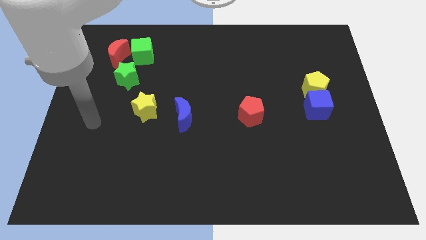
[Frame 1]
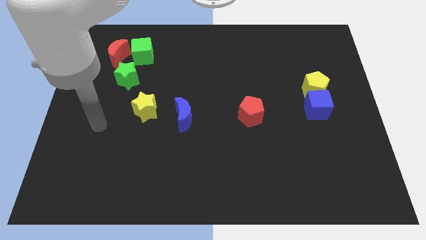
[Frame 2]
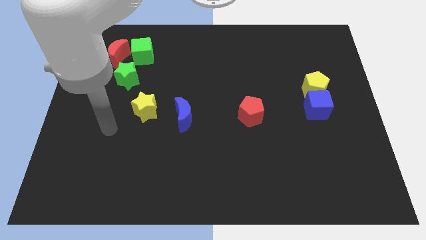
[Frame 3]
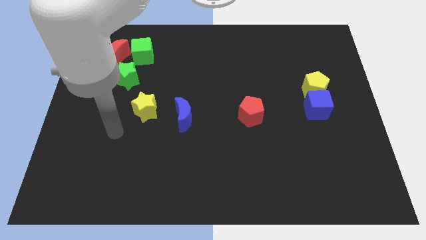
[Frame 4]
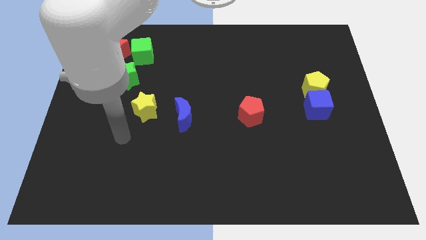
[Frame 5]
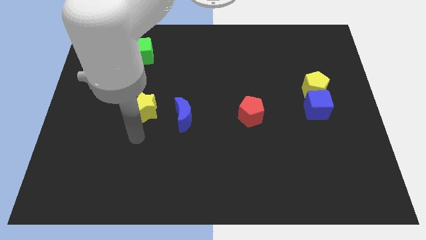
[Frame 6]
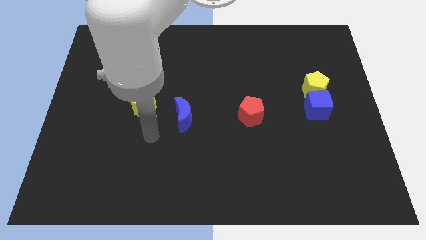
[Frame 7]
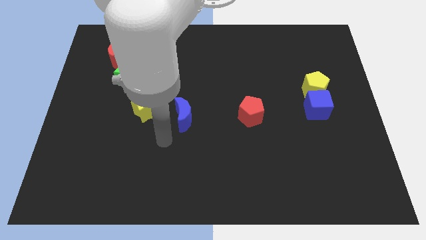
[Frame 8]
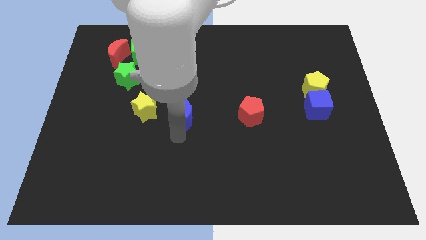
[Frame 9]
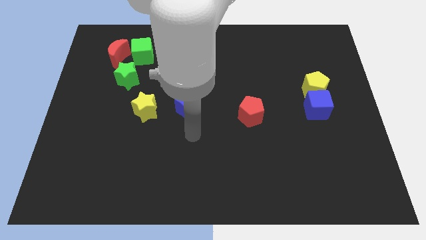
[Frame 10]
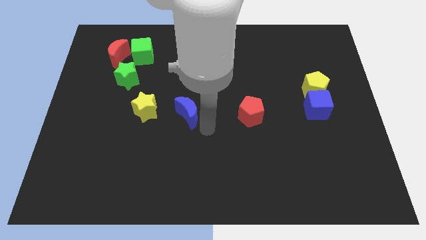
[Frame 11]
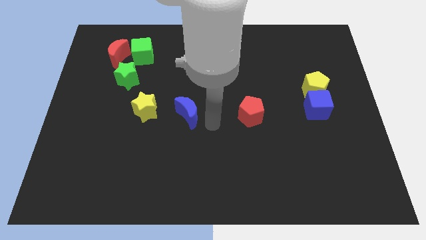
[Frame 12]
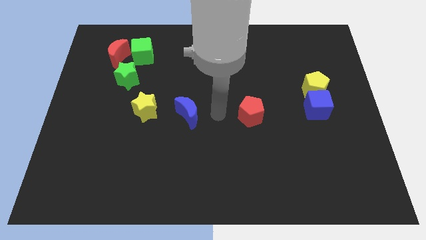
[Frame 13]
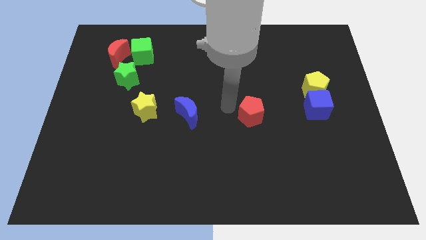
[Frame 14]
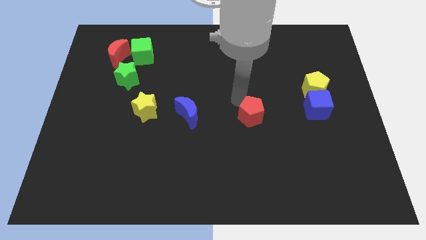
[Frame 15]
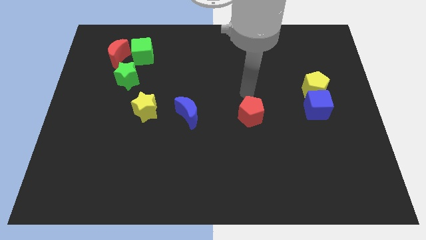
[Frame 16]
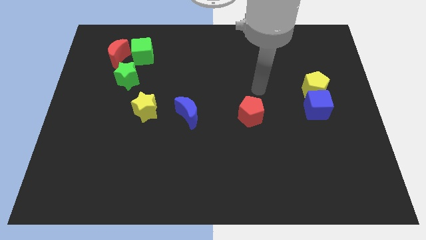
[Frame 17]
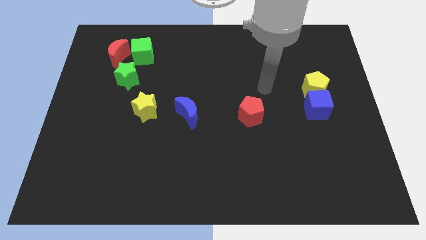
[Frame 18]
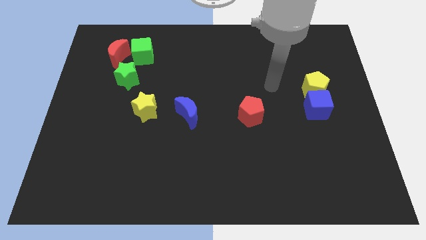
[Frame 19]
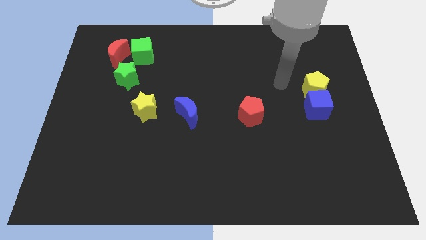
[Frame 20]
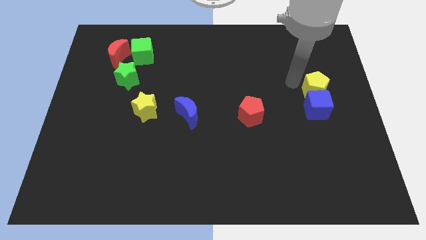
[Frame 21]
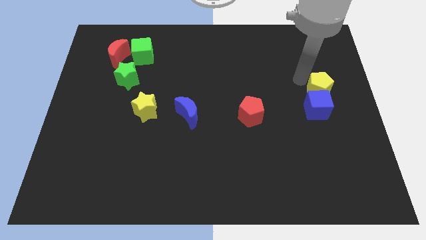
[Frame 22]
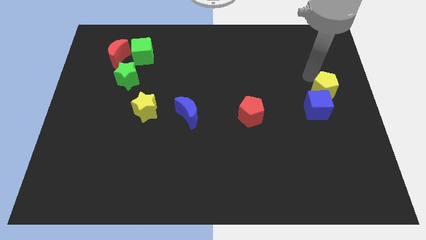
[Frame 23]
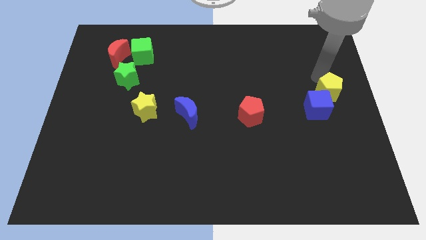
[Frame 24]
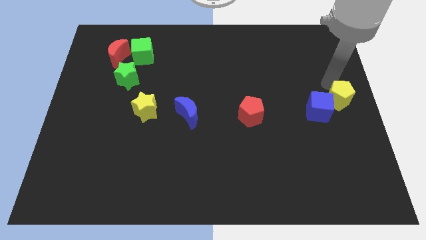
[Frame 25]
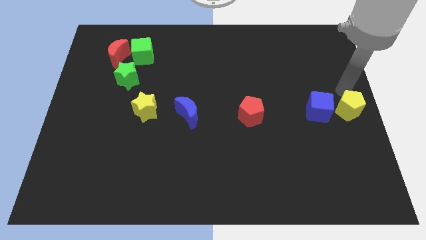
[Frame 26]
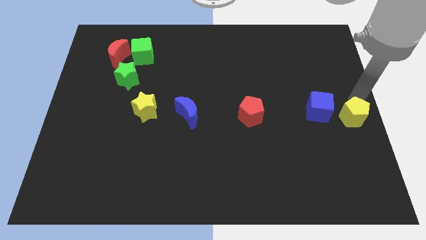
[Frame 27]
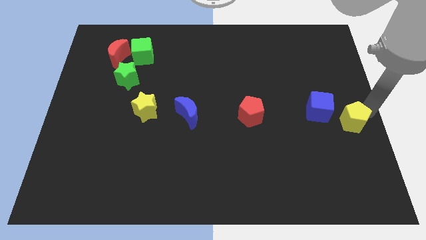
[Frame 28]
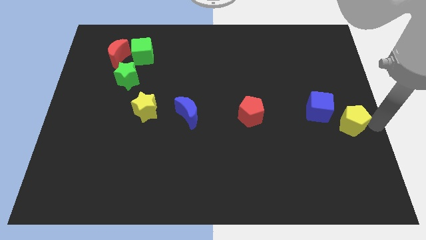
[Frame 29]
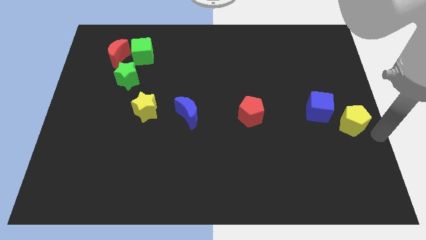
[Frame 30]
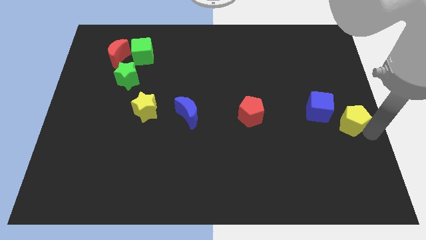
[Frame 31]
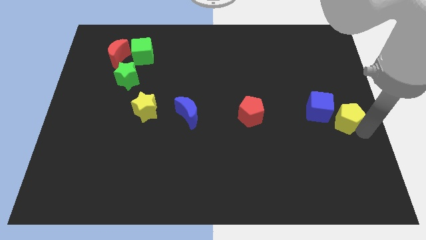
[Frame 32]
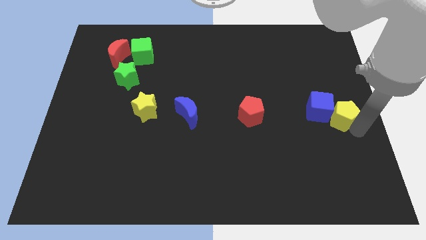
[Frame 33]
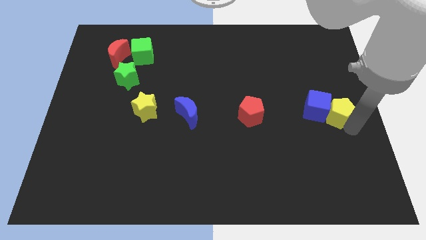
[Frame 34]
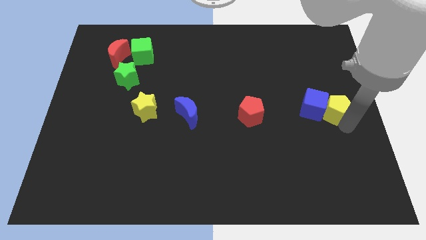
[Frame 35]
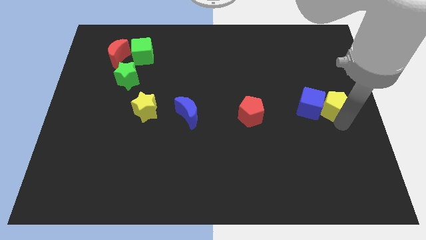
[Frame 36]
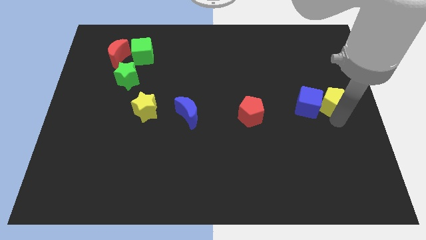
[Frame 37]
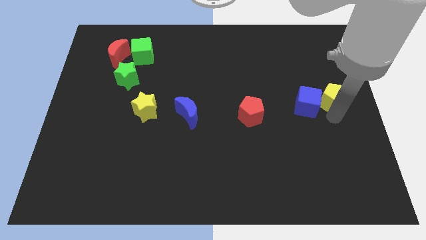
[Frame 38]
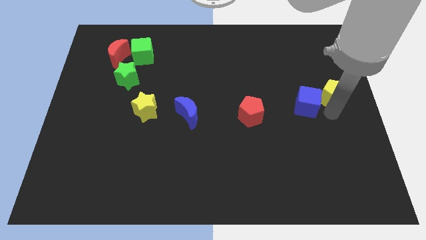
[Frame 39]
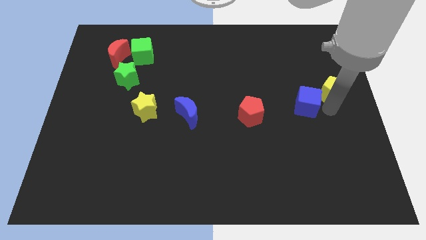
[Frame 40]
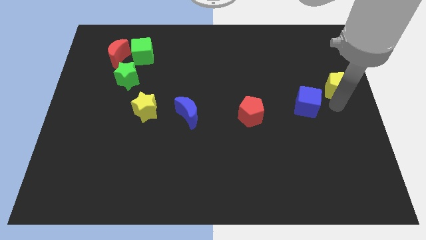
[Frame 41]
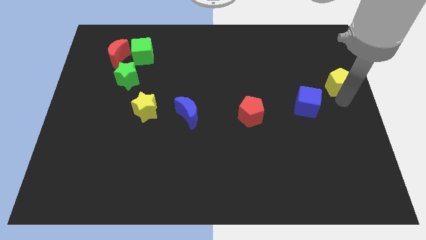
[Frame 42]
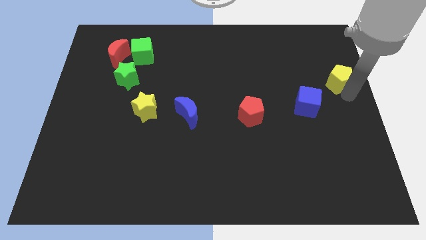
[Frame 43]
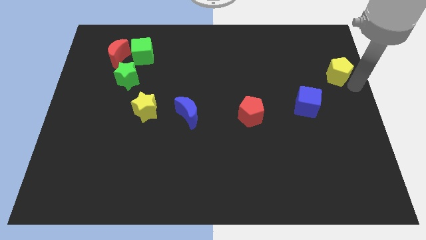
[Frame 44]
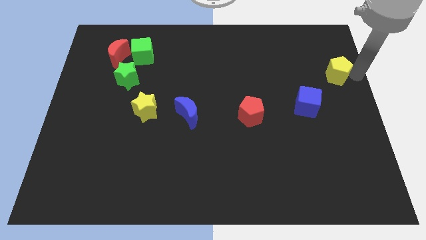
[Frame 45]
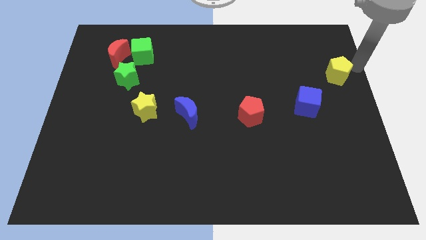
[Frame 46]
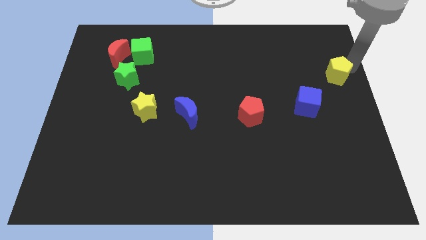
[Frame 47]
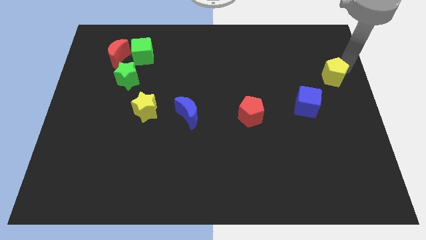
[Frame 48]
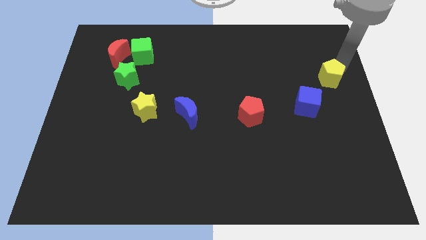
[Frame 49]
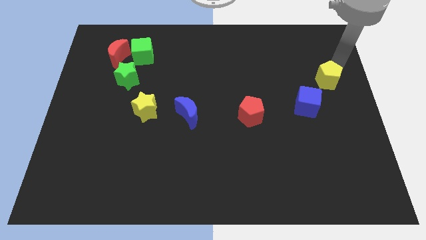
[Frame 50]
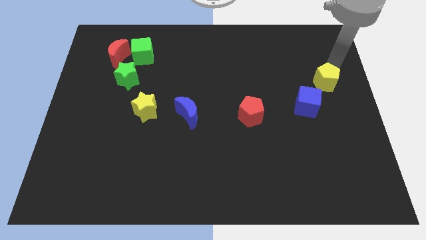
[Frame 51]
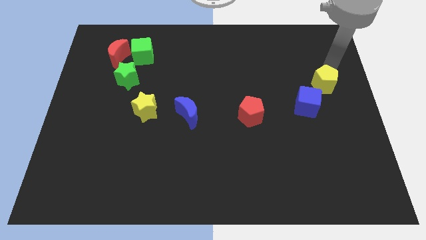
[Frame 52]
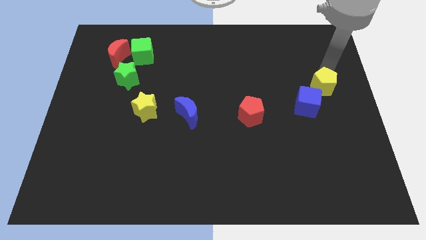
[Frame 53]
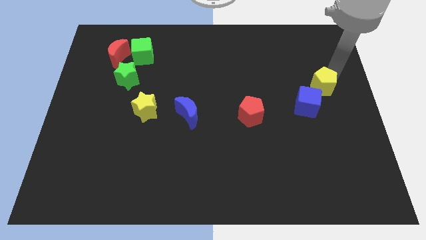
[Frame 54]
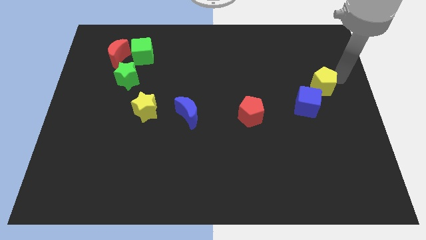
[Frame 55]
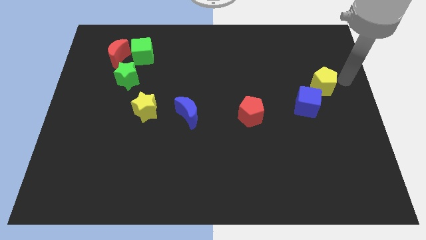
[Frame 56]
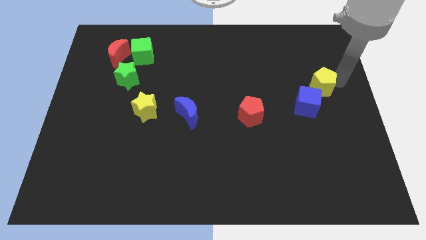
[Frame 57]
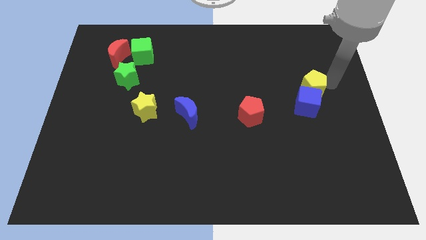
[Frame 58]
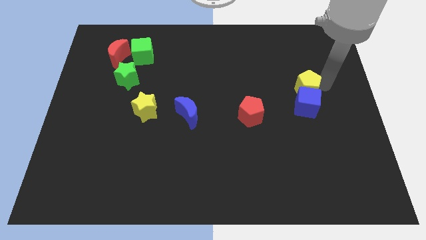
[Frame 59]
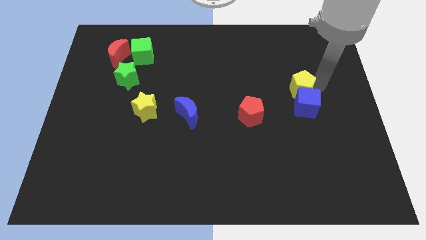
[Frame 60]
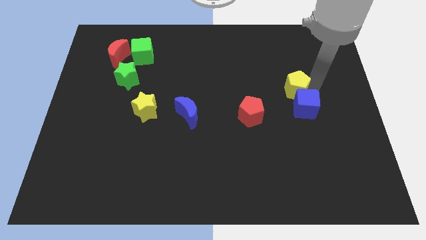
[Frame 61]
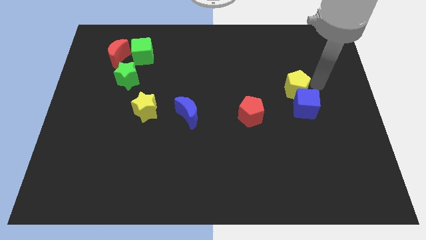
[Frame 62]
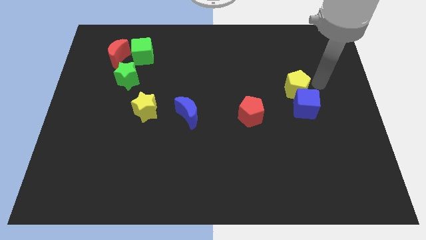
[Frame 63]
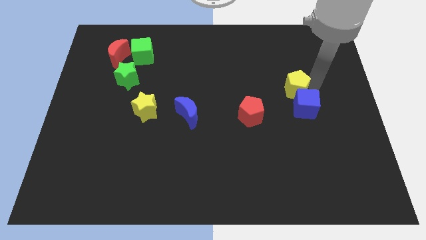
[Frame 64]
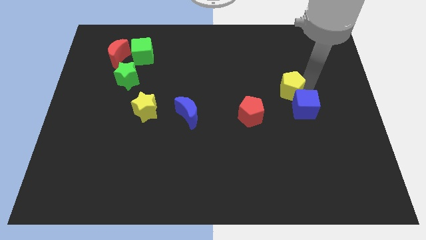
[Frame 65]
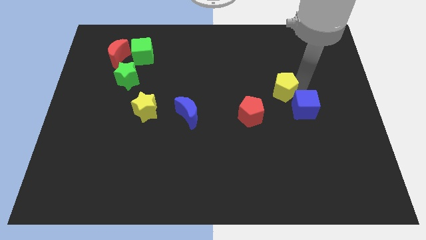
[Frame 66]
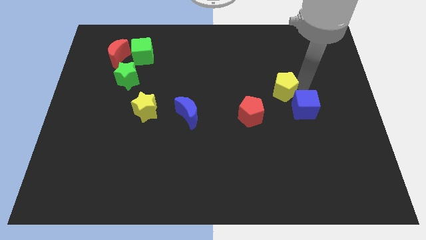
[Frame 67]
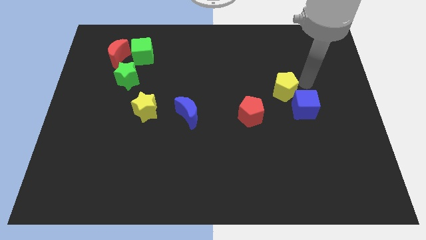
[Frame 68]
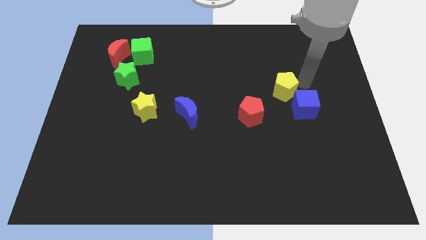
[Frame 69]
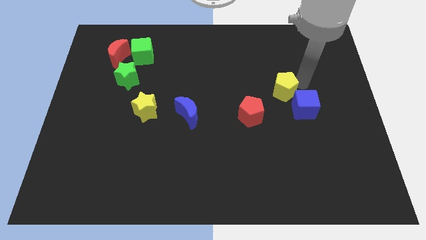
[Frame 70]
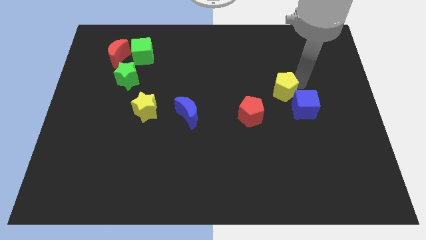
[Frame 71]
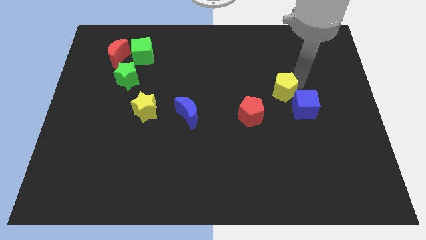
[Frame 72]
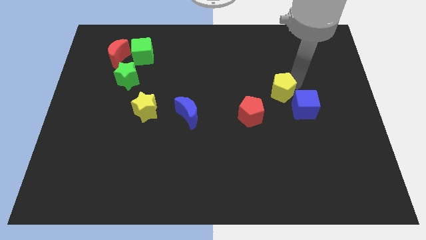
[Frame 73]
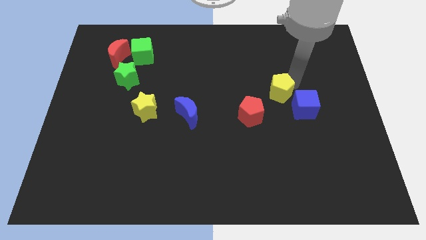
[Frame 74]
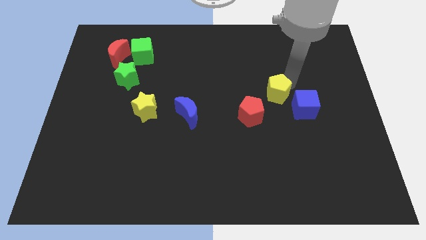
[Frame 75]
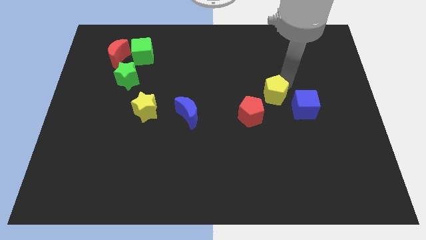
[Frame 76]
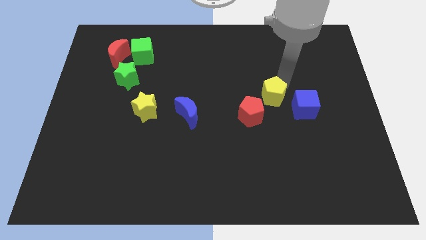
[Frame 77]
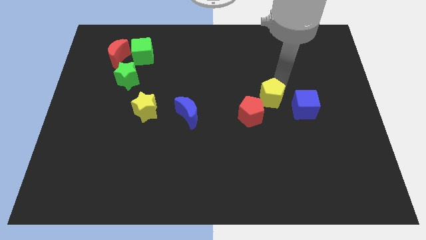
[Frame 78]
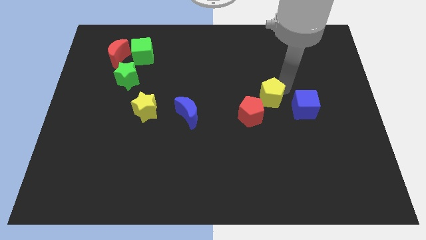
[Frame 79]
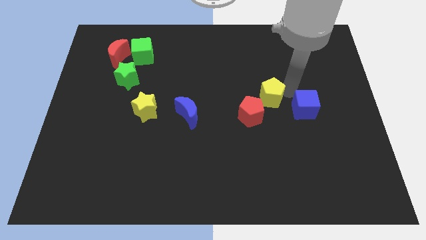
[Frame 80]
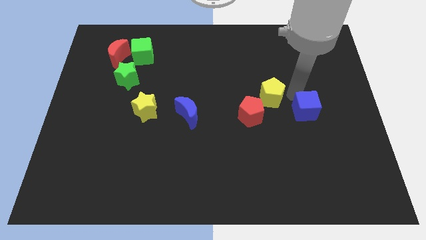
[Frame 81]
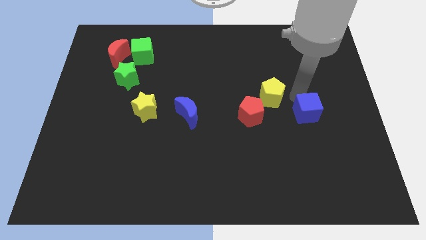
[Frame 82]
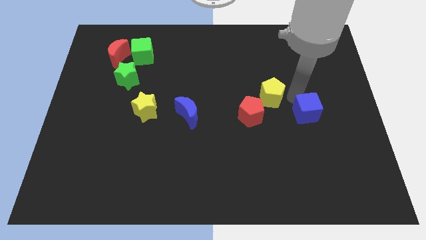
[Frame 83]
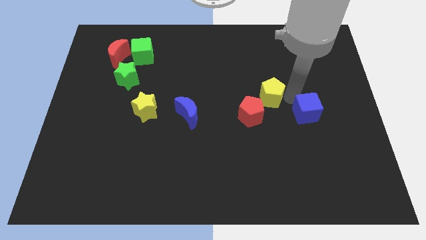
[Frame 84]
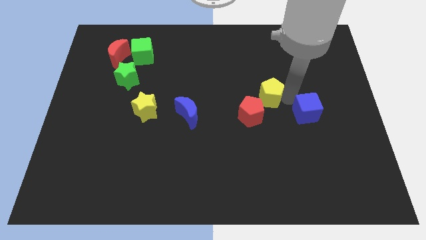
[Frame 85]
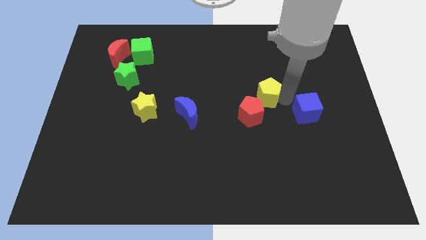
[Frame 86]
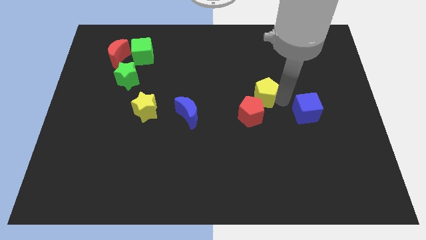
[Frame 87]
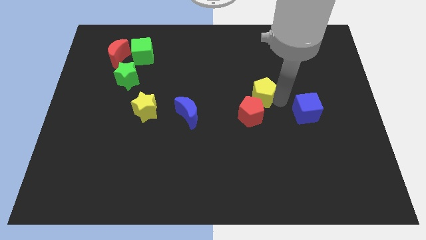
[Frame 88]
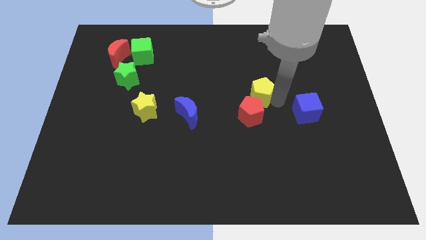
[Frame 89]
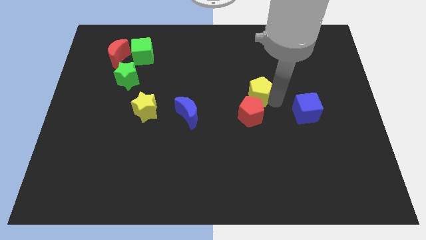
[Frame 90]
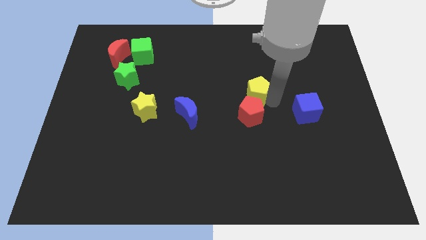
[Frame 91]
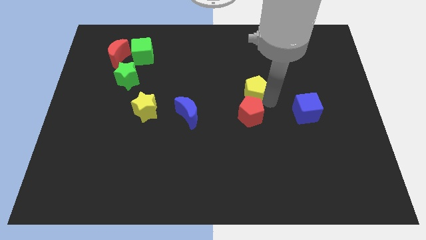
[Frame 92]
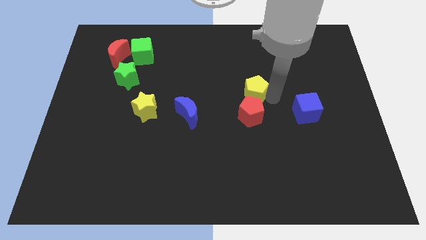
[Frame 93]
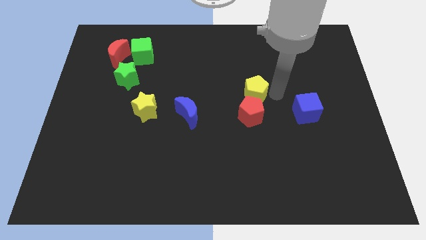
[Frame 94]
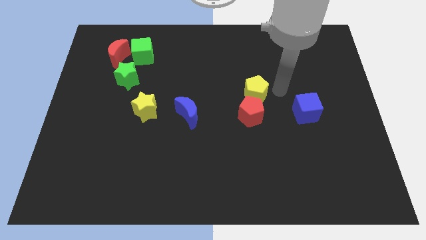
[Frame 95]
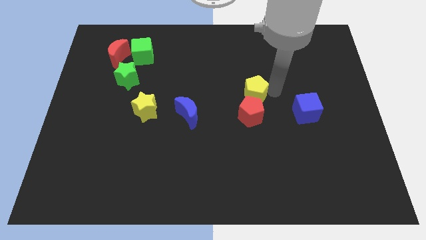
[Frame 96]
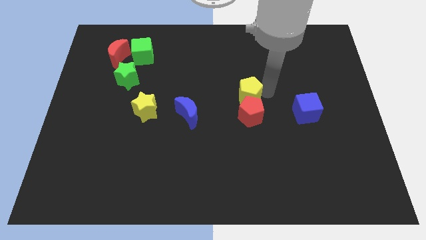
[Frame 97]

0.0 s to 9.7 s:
slide the yellow pentagon diagonally up and to the left of the red pentagon
